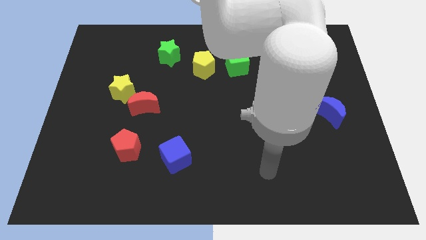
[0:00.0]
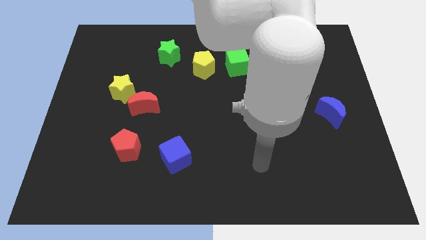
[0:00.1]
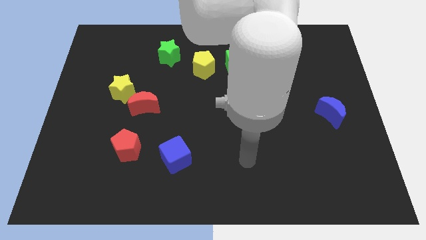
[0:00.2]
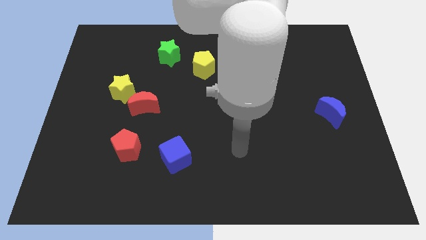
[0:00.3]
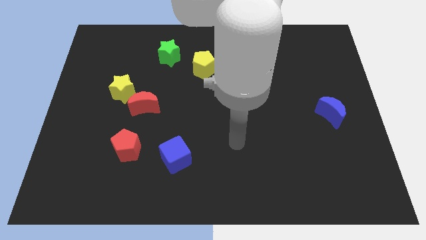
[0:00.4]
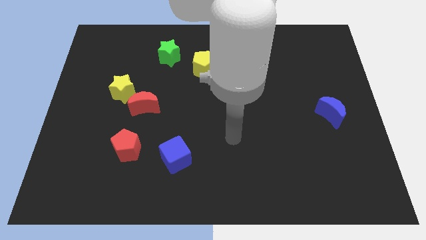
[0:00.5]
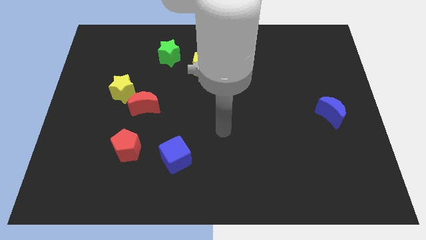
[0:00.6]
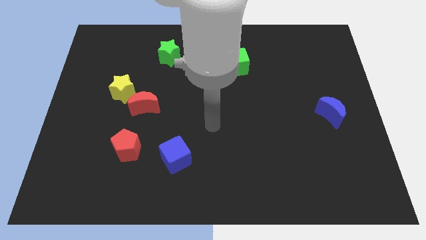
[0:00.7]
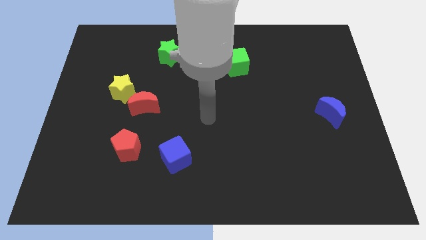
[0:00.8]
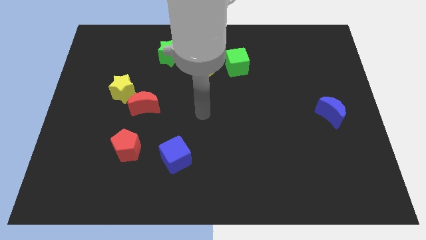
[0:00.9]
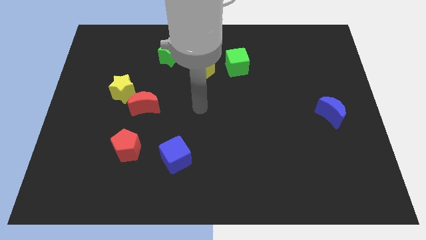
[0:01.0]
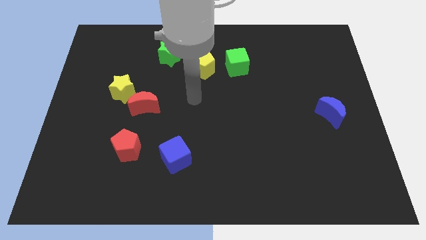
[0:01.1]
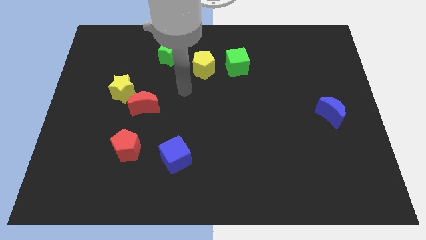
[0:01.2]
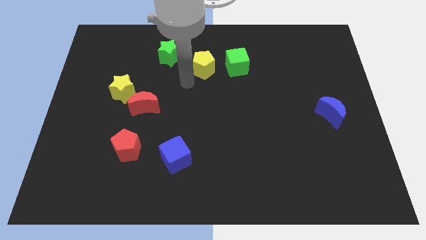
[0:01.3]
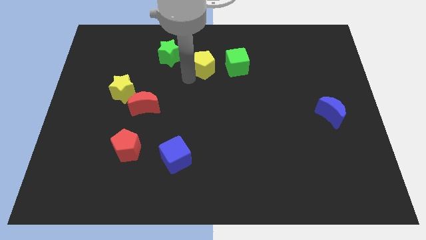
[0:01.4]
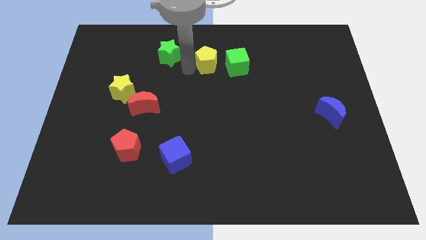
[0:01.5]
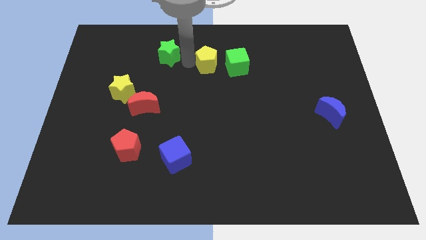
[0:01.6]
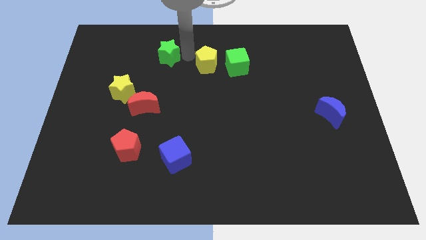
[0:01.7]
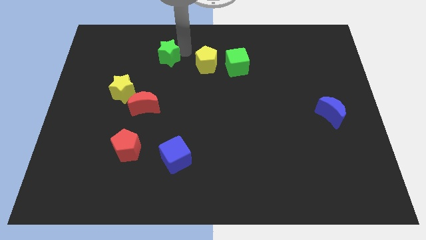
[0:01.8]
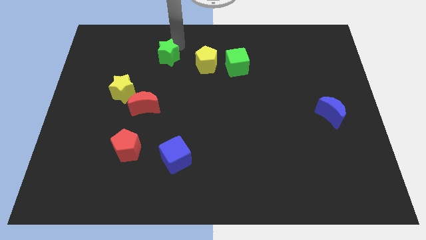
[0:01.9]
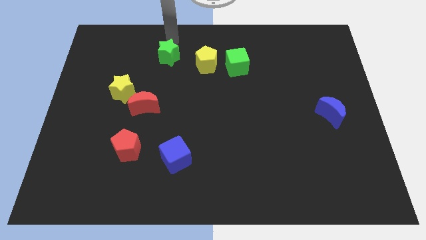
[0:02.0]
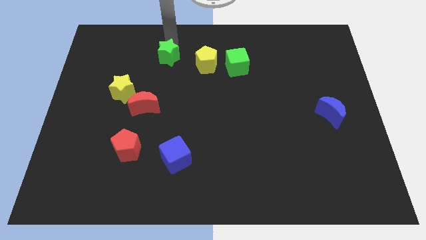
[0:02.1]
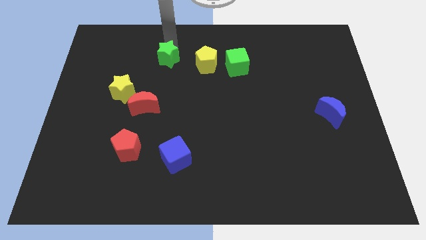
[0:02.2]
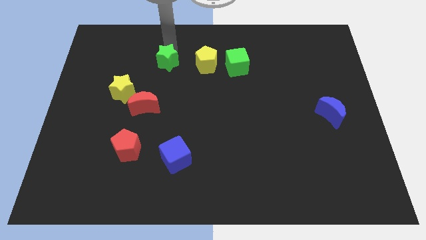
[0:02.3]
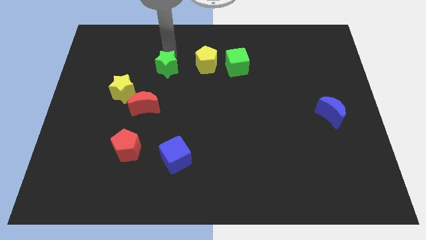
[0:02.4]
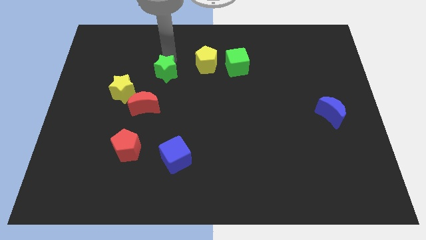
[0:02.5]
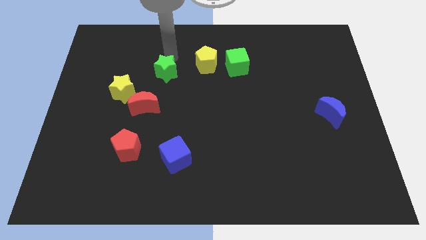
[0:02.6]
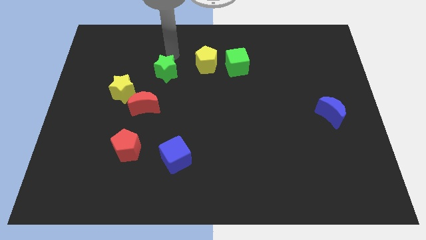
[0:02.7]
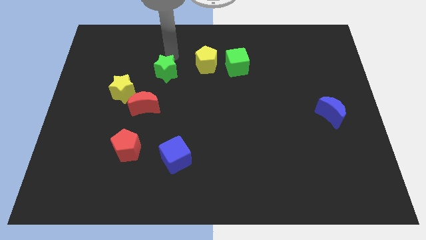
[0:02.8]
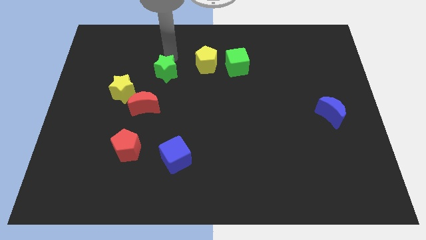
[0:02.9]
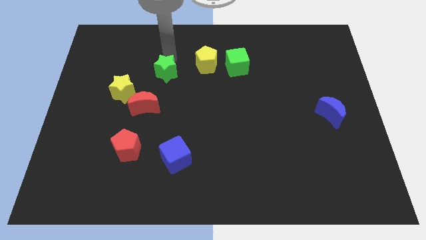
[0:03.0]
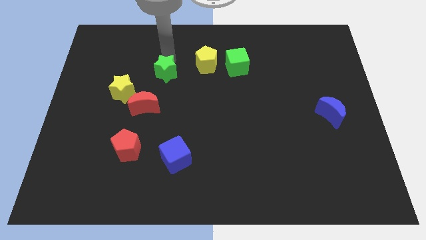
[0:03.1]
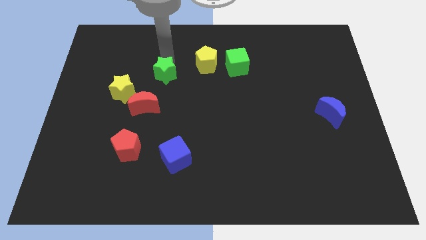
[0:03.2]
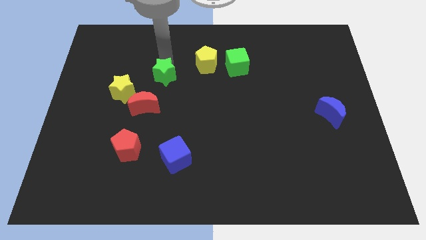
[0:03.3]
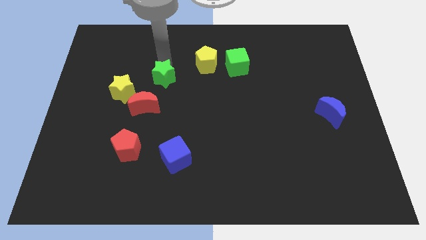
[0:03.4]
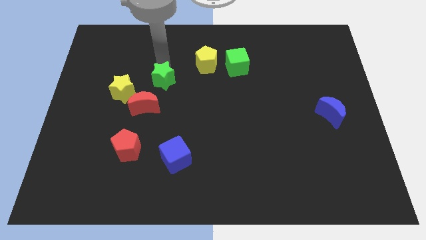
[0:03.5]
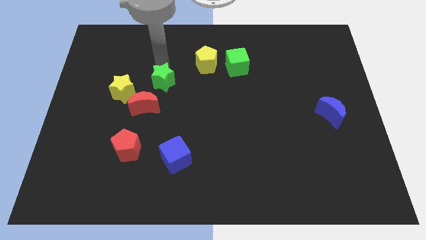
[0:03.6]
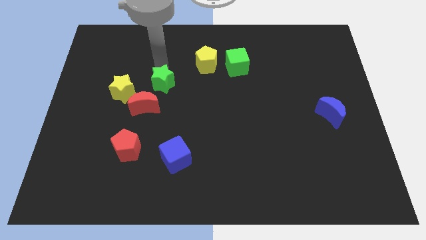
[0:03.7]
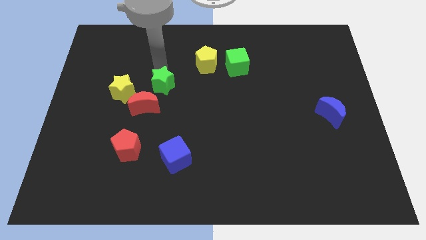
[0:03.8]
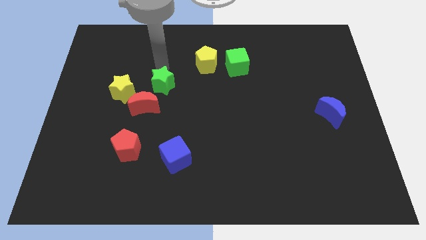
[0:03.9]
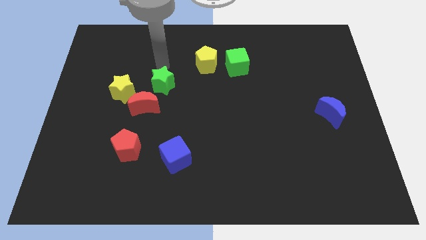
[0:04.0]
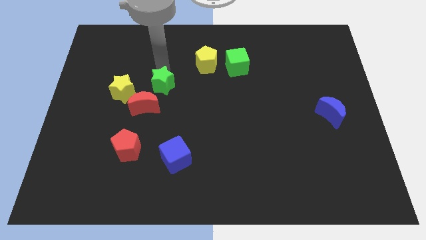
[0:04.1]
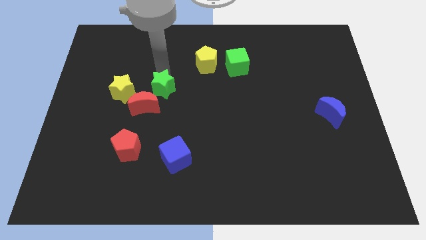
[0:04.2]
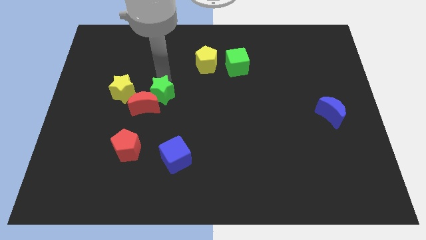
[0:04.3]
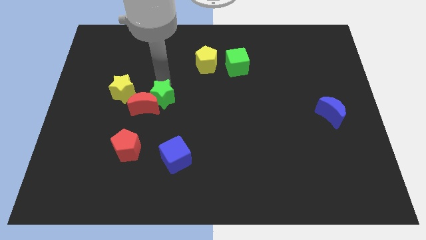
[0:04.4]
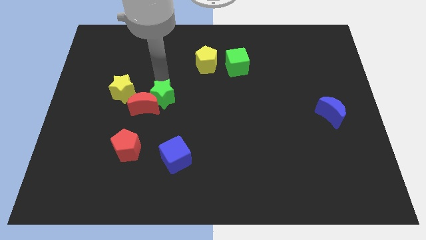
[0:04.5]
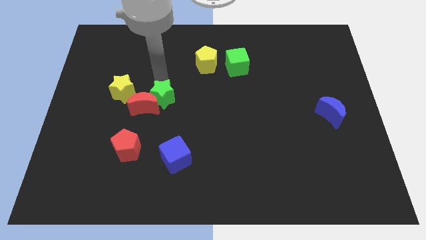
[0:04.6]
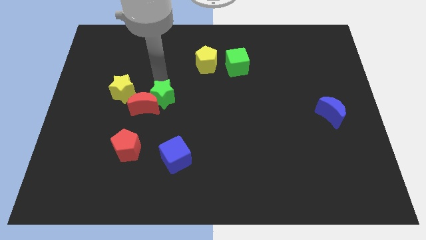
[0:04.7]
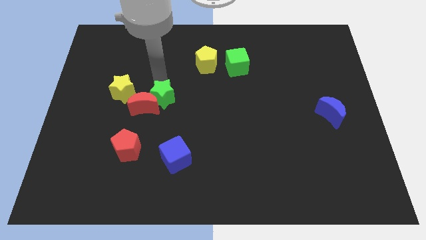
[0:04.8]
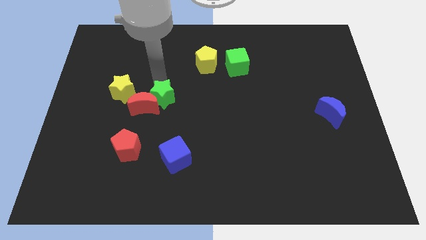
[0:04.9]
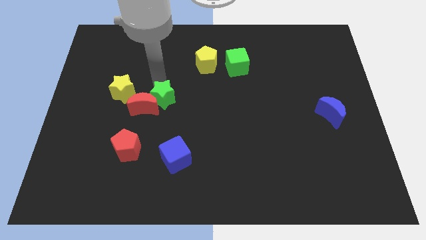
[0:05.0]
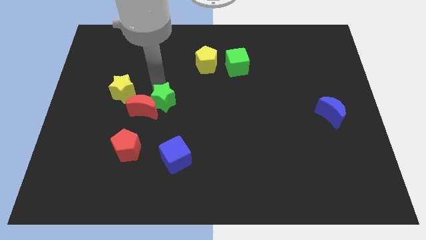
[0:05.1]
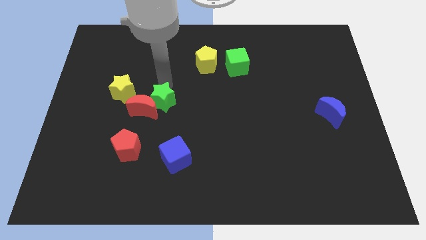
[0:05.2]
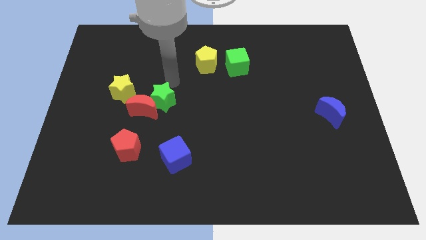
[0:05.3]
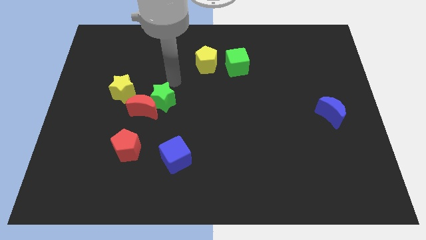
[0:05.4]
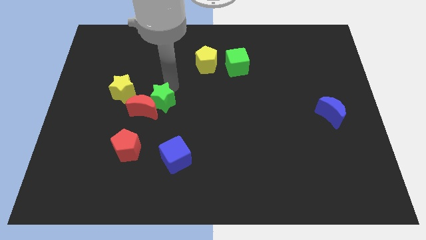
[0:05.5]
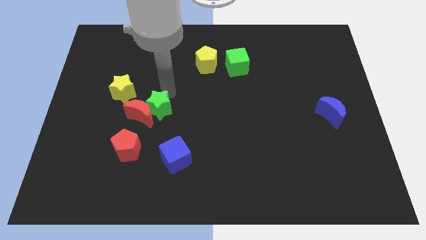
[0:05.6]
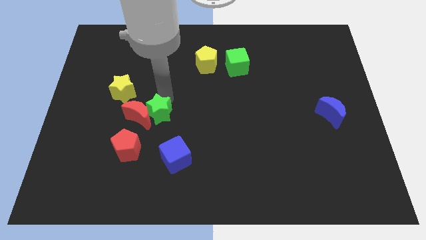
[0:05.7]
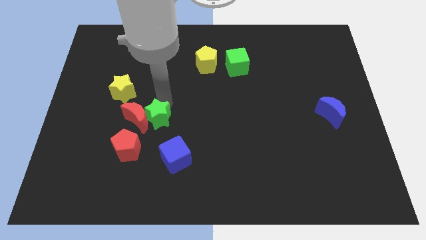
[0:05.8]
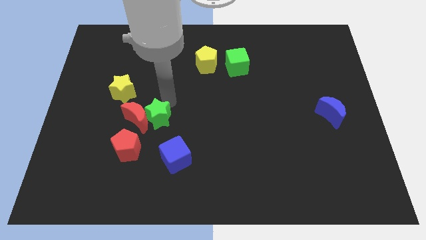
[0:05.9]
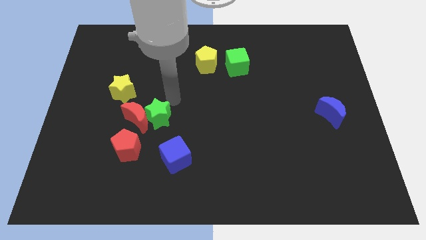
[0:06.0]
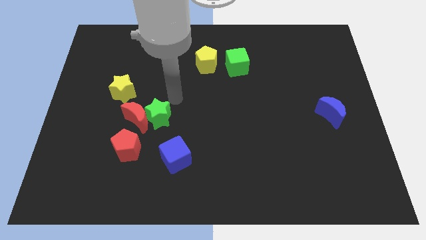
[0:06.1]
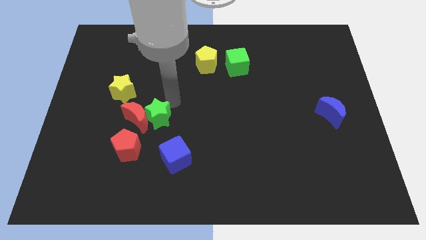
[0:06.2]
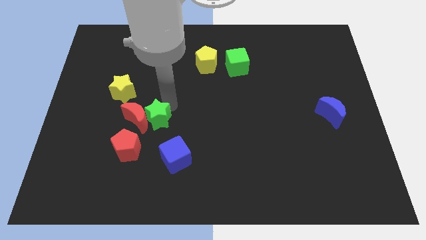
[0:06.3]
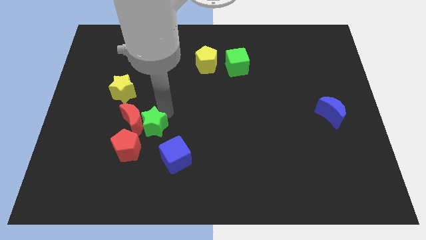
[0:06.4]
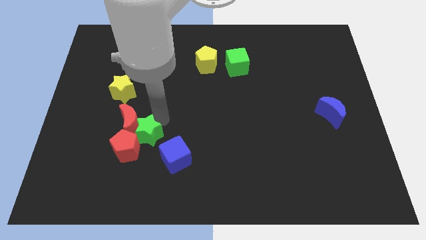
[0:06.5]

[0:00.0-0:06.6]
put the green star towards the red pentagon

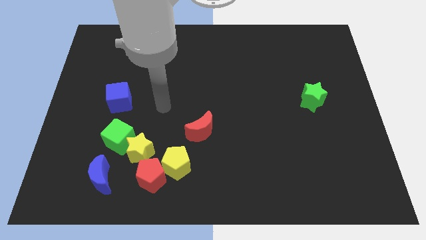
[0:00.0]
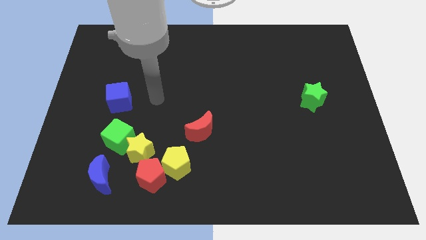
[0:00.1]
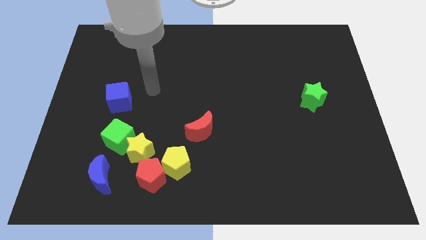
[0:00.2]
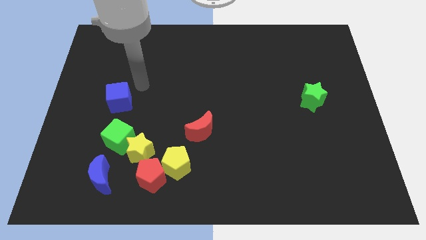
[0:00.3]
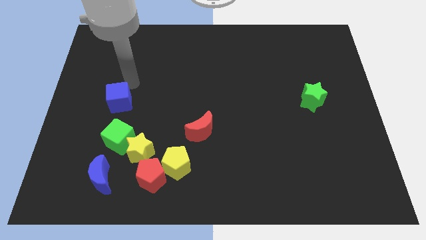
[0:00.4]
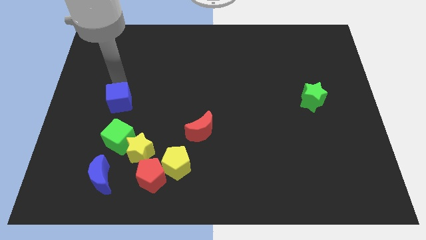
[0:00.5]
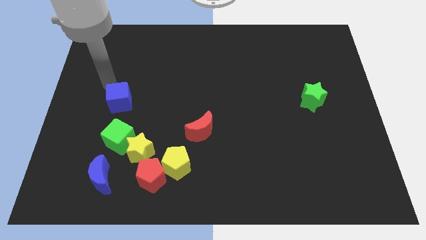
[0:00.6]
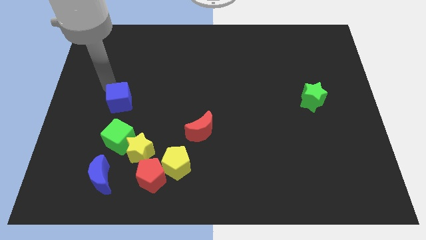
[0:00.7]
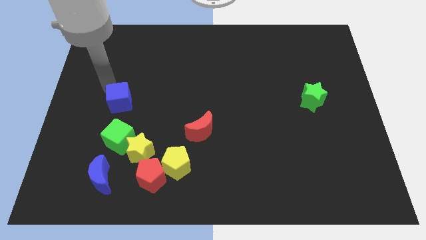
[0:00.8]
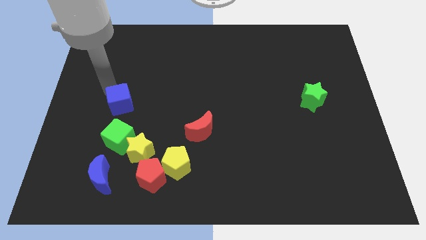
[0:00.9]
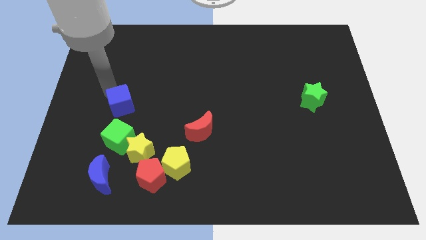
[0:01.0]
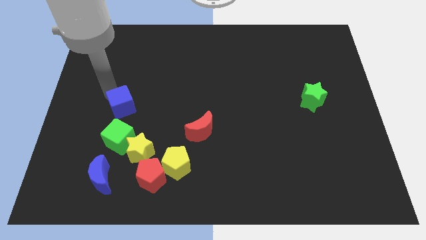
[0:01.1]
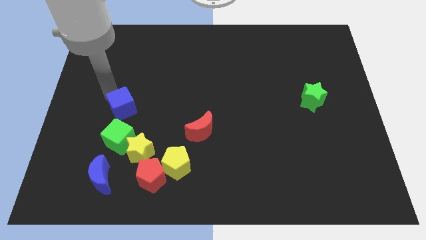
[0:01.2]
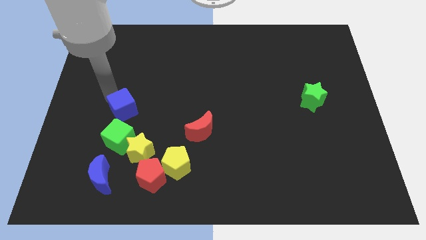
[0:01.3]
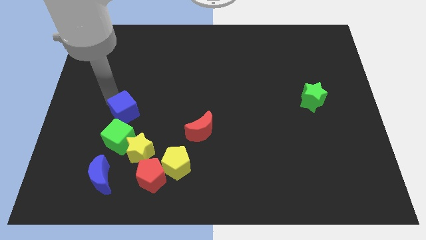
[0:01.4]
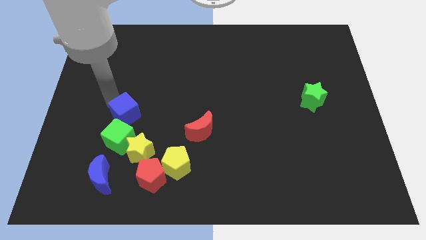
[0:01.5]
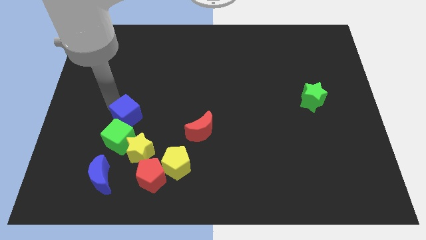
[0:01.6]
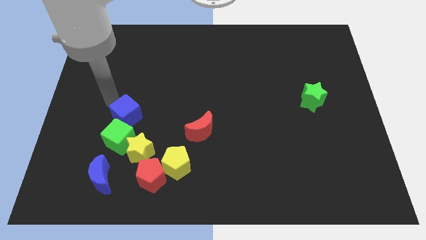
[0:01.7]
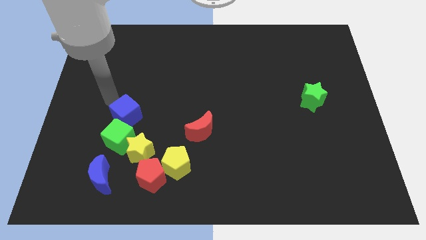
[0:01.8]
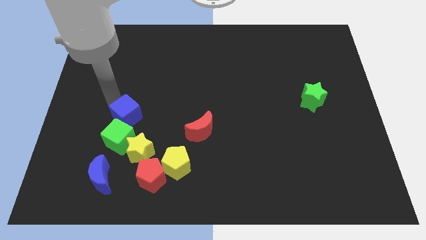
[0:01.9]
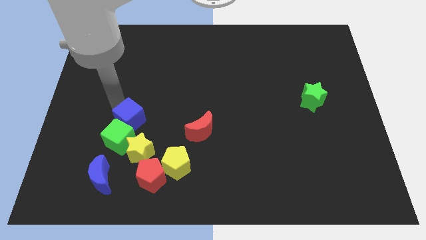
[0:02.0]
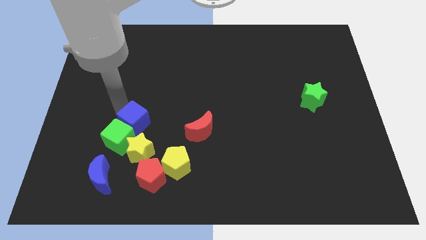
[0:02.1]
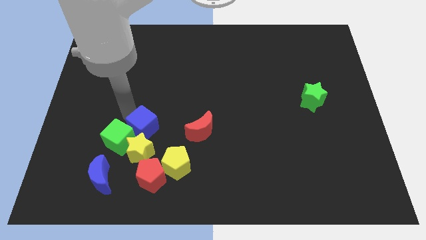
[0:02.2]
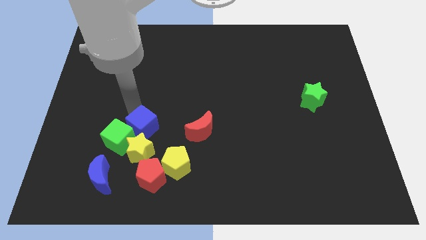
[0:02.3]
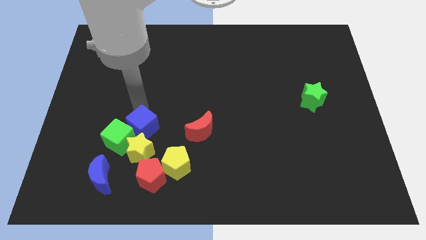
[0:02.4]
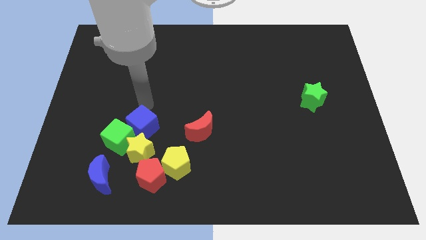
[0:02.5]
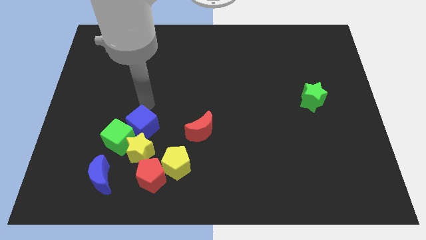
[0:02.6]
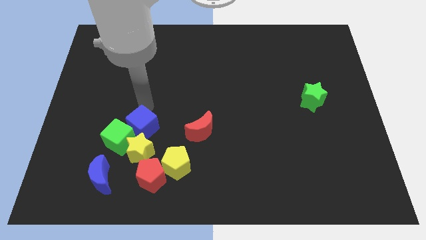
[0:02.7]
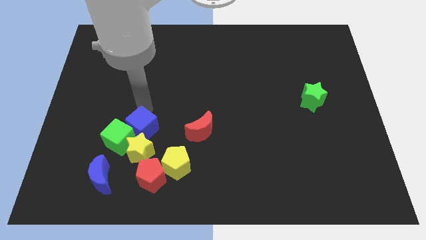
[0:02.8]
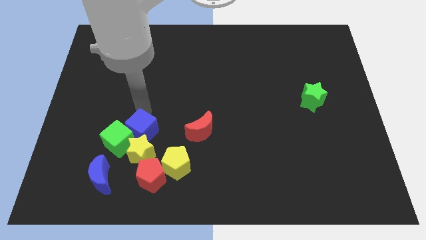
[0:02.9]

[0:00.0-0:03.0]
slide the blue cube close to the yellow star
